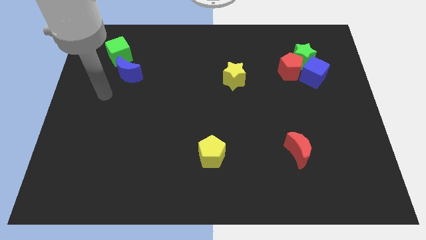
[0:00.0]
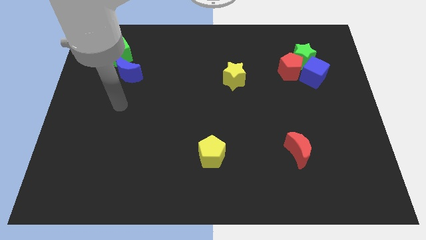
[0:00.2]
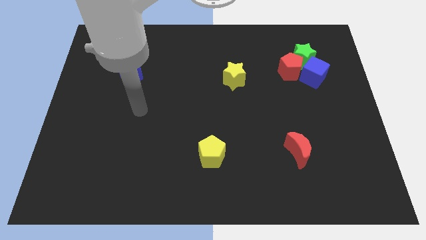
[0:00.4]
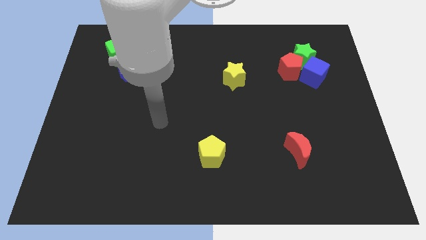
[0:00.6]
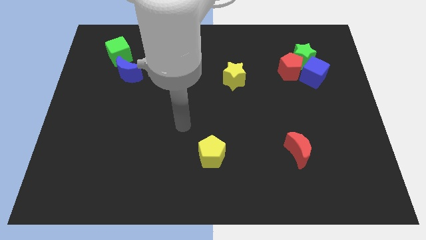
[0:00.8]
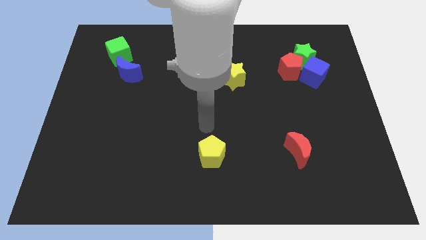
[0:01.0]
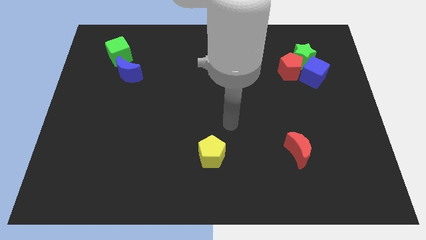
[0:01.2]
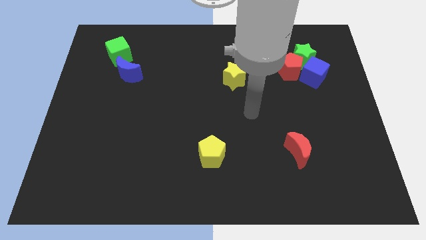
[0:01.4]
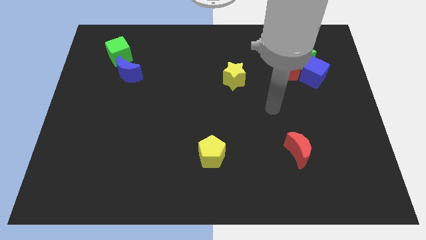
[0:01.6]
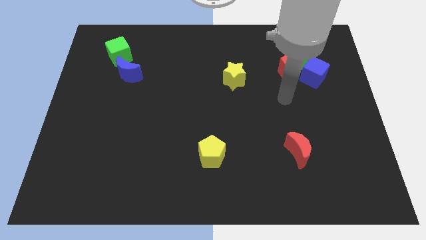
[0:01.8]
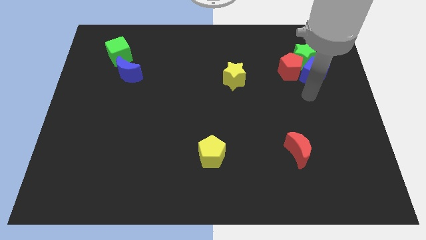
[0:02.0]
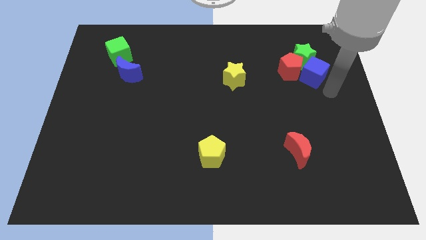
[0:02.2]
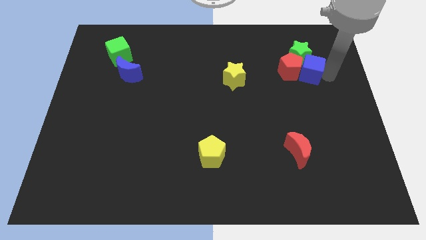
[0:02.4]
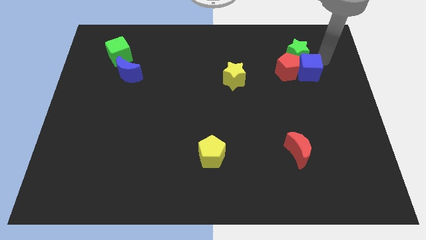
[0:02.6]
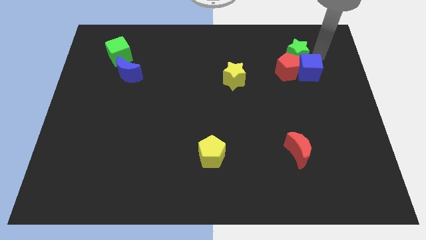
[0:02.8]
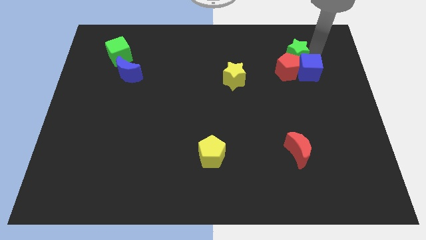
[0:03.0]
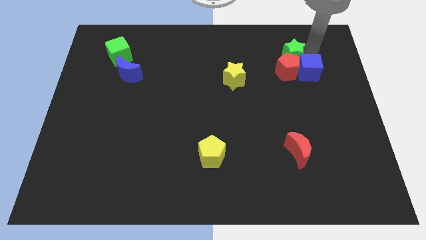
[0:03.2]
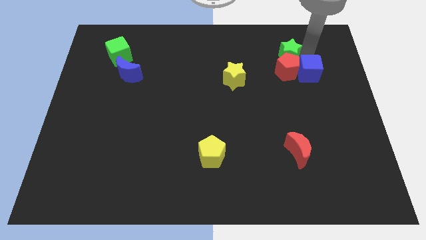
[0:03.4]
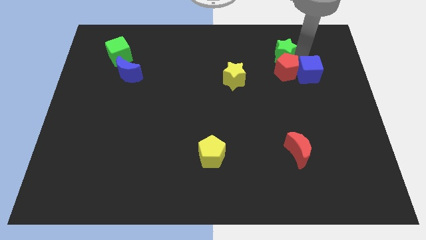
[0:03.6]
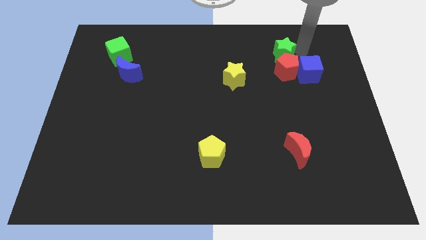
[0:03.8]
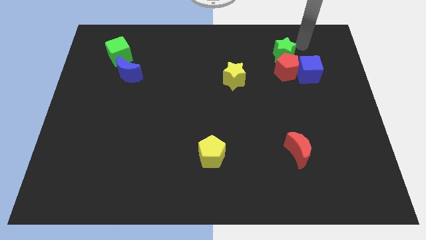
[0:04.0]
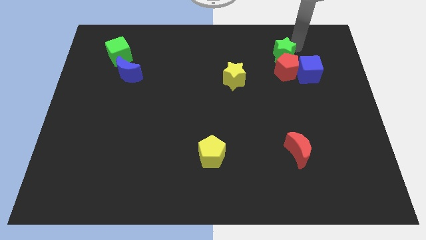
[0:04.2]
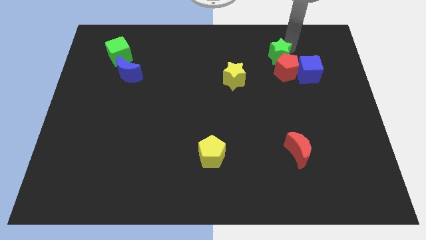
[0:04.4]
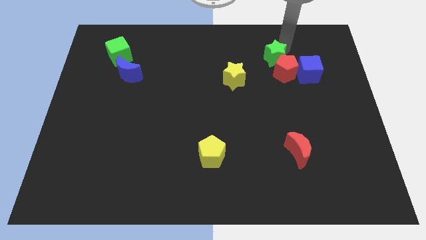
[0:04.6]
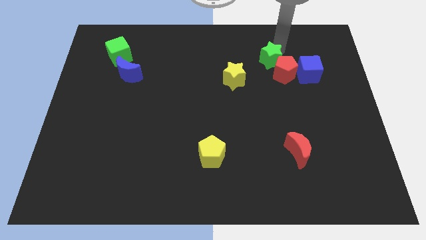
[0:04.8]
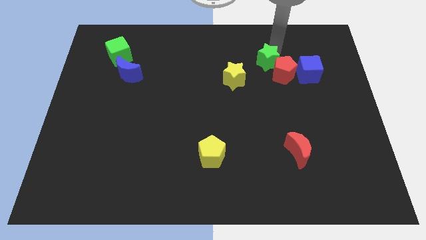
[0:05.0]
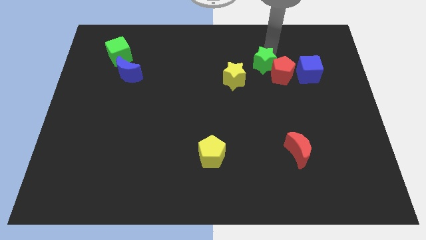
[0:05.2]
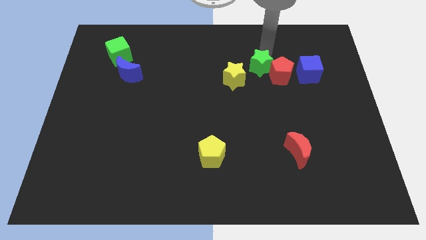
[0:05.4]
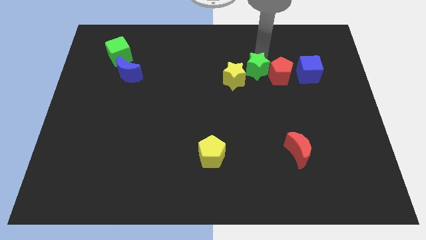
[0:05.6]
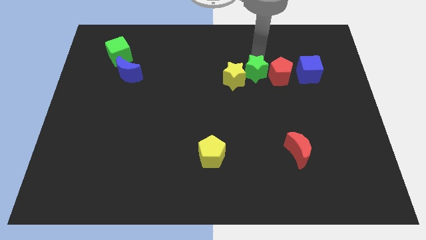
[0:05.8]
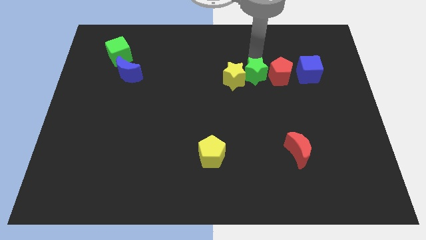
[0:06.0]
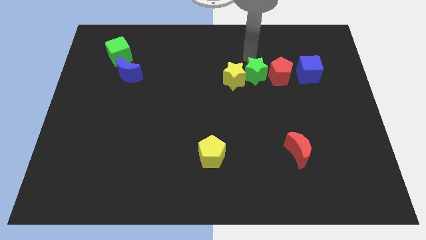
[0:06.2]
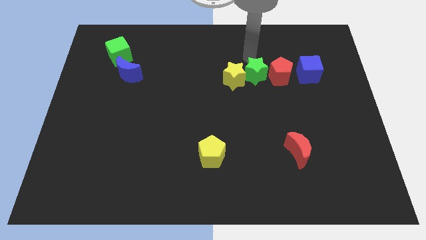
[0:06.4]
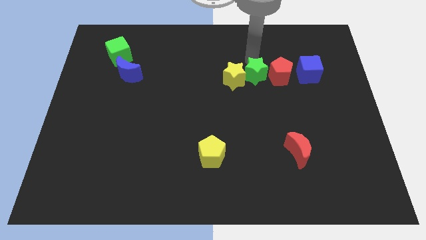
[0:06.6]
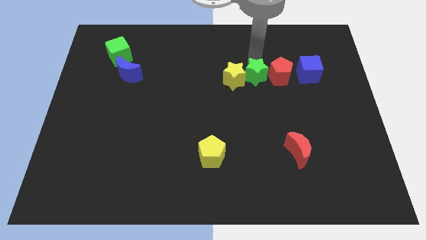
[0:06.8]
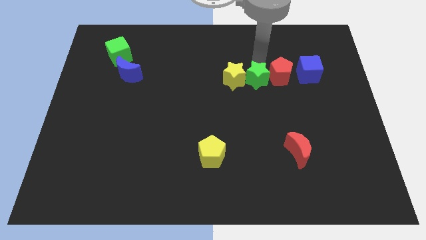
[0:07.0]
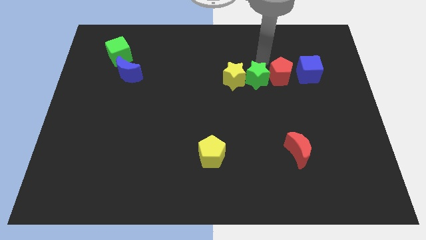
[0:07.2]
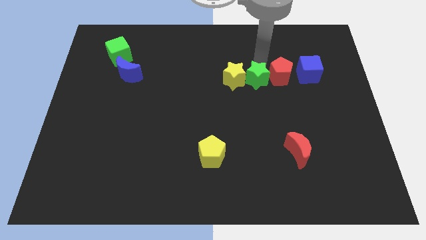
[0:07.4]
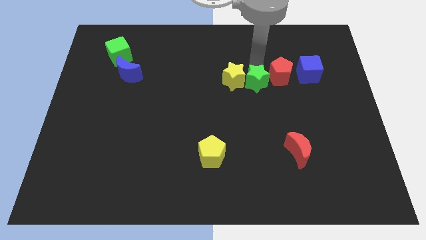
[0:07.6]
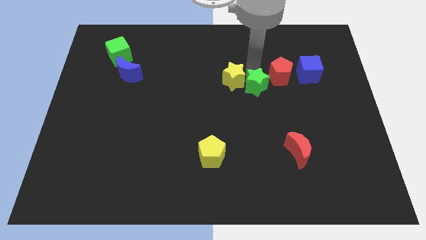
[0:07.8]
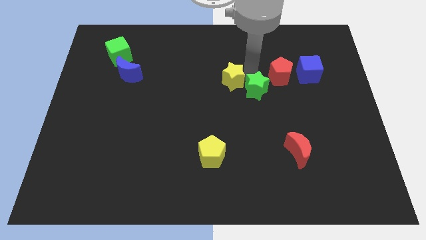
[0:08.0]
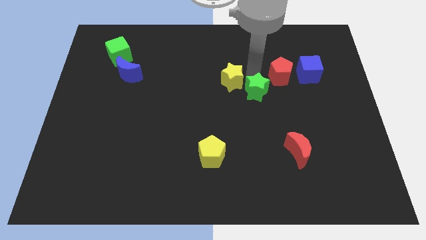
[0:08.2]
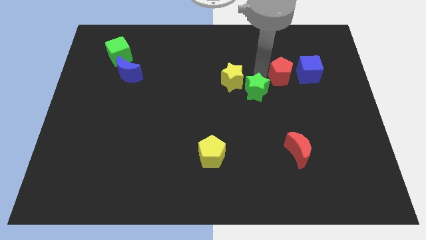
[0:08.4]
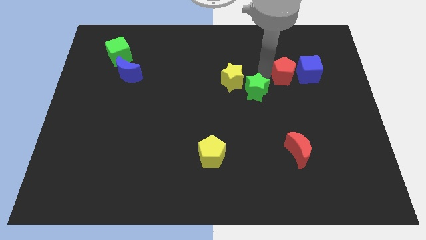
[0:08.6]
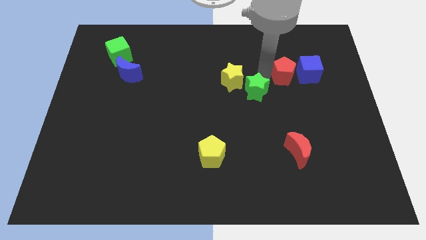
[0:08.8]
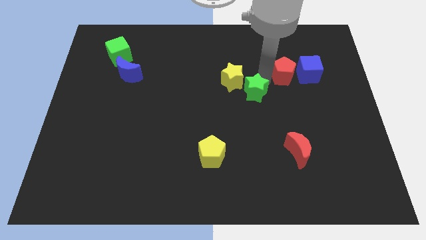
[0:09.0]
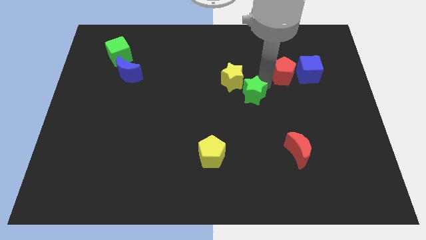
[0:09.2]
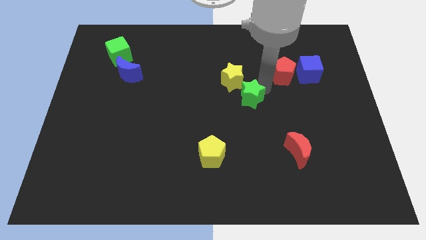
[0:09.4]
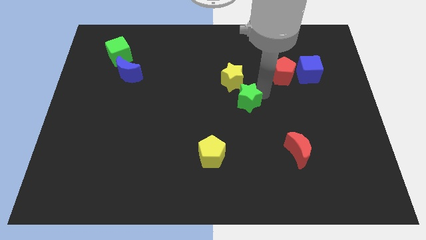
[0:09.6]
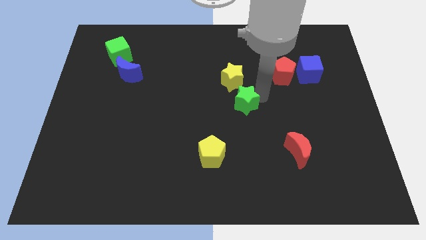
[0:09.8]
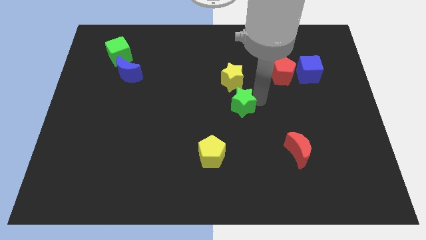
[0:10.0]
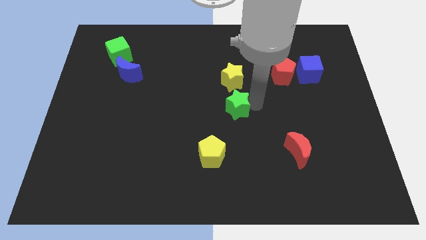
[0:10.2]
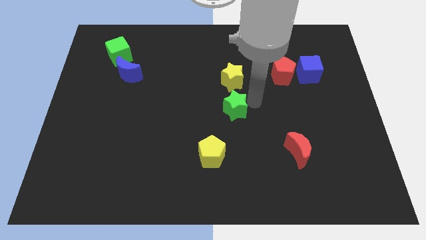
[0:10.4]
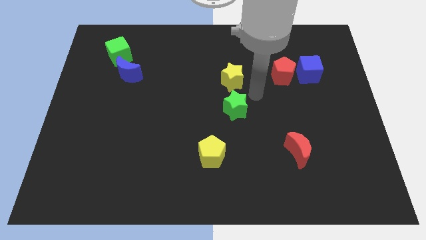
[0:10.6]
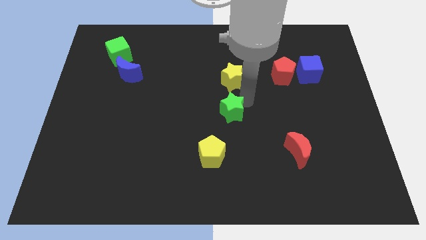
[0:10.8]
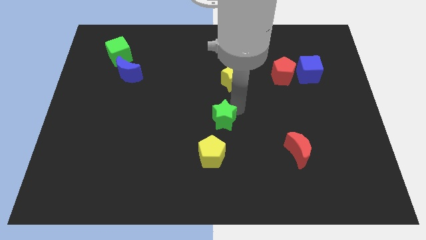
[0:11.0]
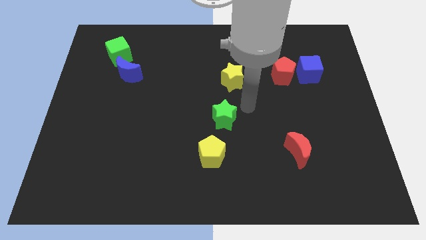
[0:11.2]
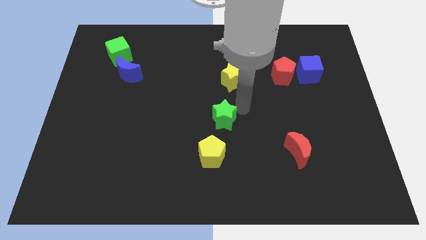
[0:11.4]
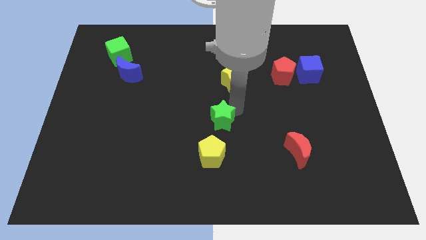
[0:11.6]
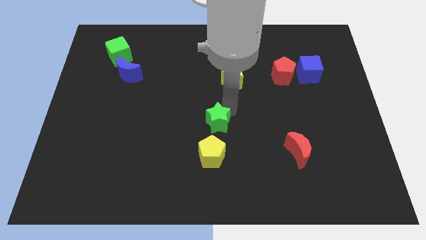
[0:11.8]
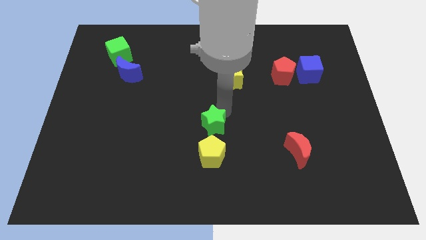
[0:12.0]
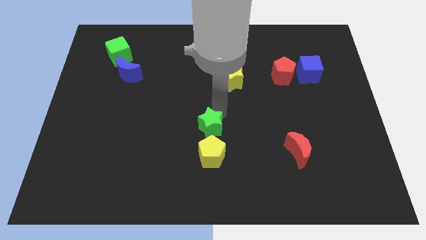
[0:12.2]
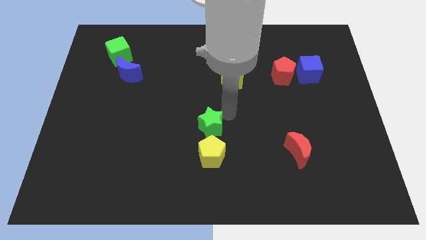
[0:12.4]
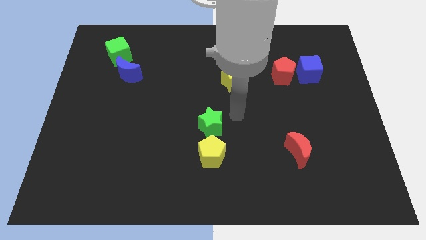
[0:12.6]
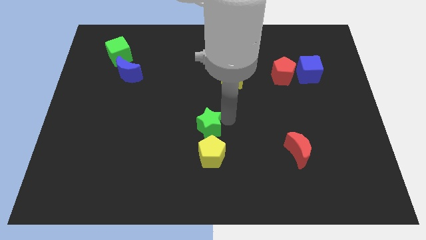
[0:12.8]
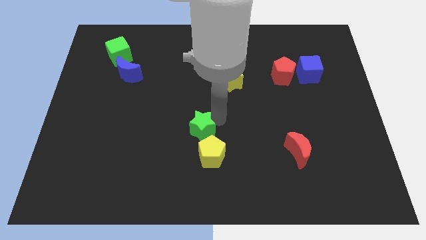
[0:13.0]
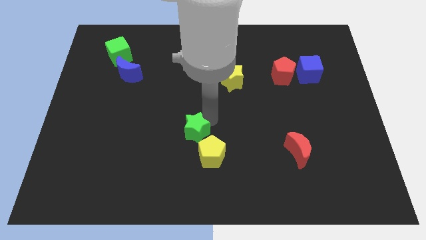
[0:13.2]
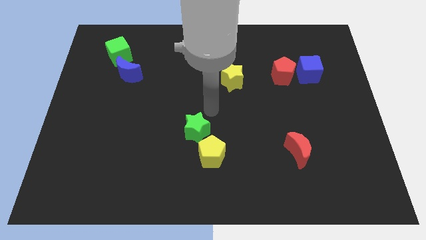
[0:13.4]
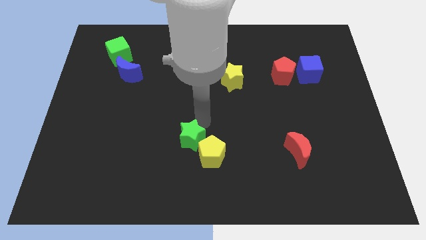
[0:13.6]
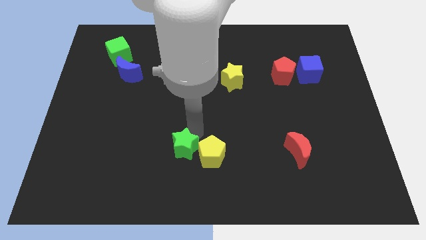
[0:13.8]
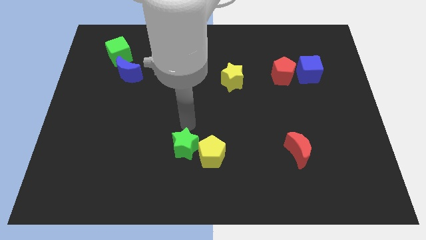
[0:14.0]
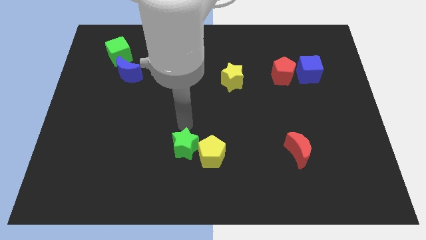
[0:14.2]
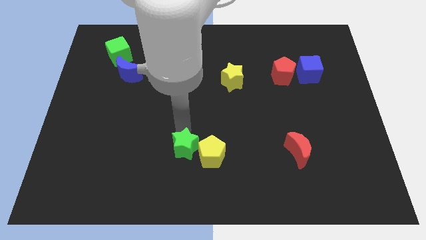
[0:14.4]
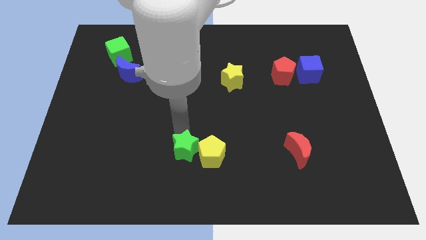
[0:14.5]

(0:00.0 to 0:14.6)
move the green star to the bottom left side of the yellow pentagon

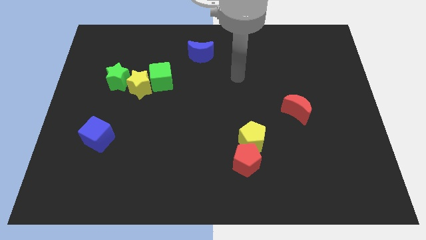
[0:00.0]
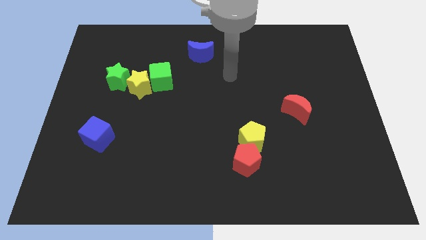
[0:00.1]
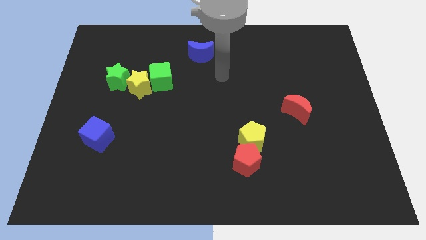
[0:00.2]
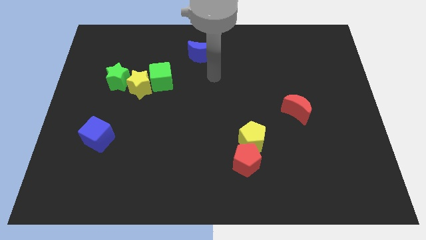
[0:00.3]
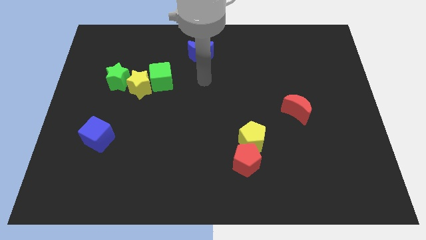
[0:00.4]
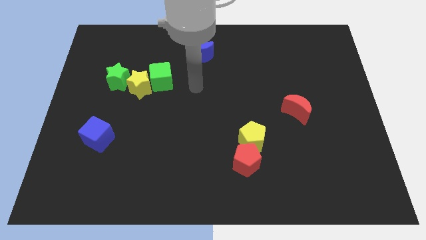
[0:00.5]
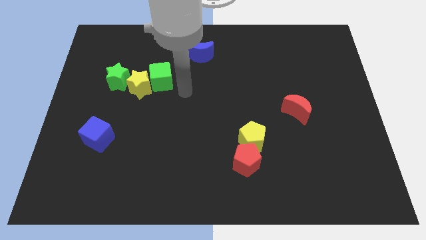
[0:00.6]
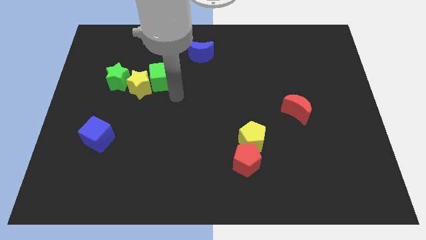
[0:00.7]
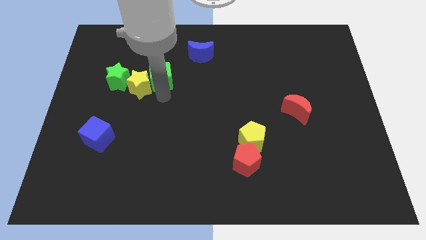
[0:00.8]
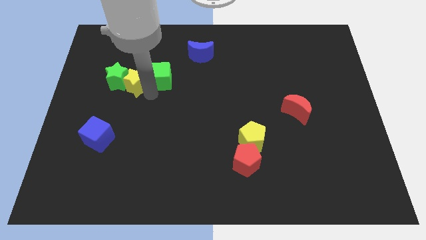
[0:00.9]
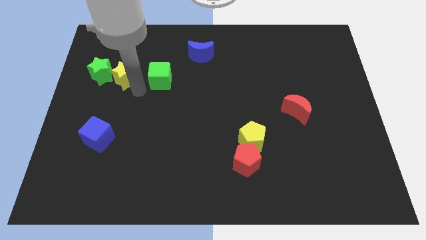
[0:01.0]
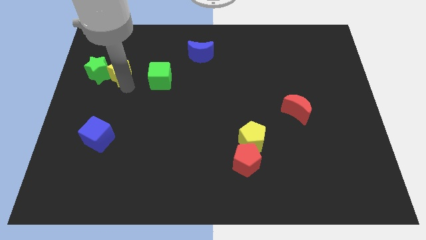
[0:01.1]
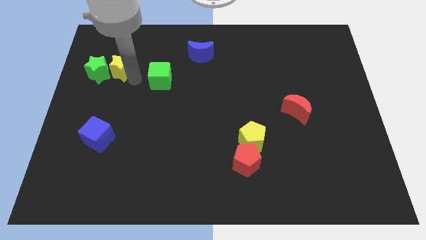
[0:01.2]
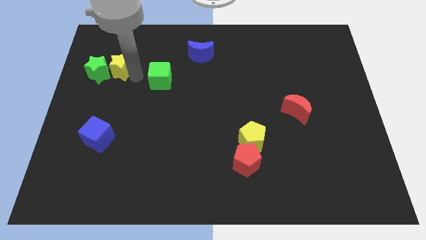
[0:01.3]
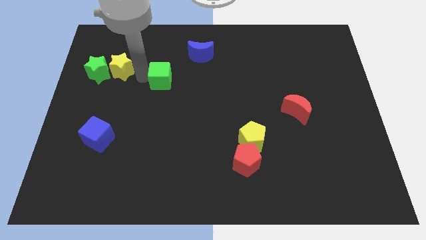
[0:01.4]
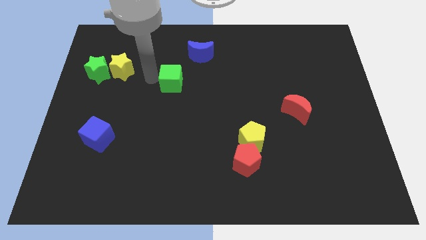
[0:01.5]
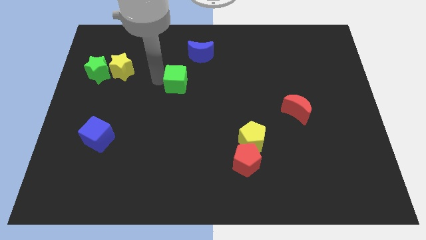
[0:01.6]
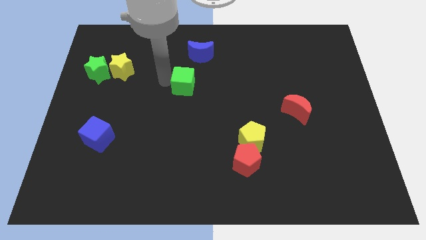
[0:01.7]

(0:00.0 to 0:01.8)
move the green cube below the blue moon
